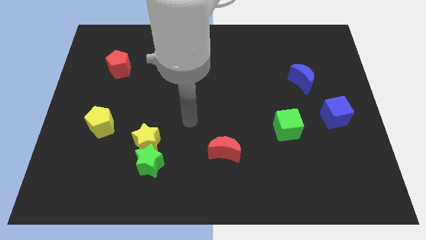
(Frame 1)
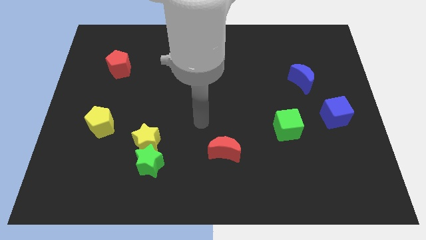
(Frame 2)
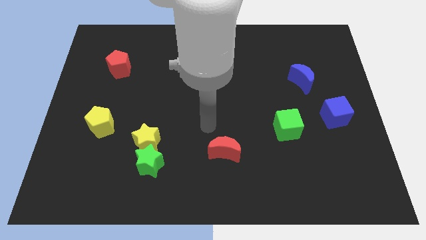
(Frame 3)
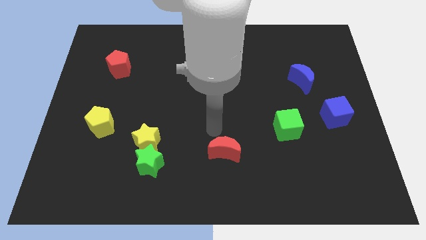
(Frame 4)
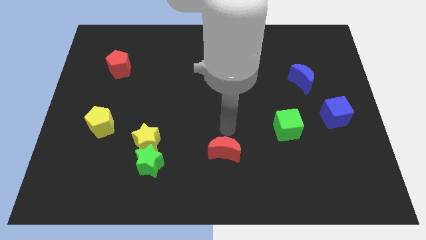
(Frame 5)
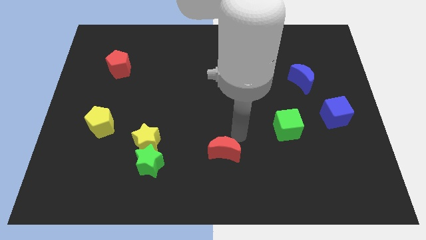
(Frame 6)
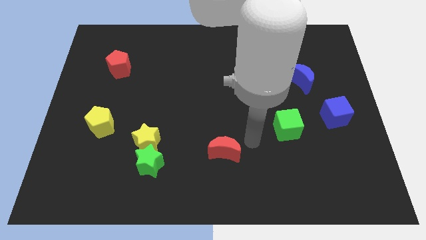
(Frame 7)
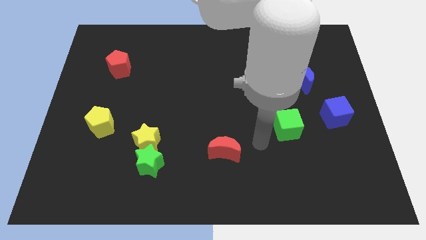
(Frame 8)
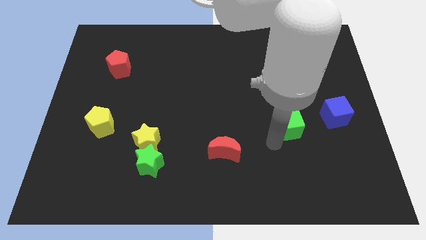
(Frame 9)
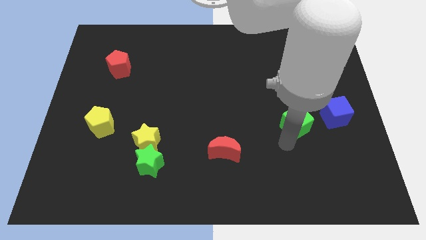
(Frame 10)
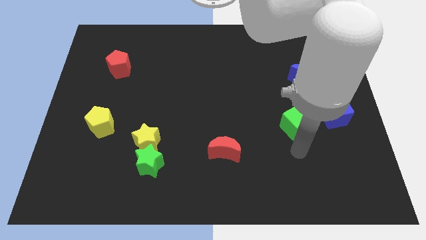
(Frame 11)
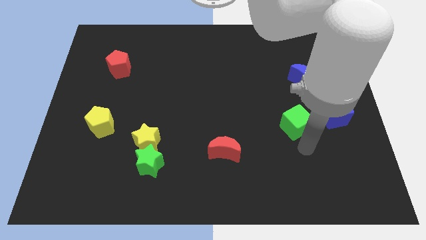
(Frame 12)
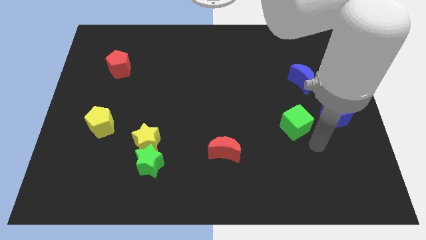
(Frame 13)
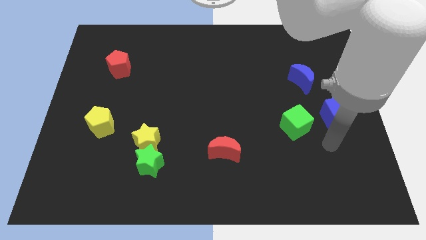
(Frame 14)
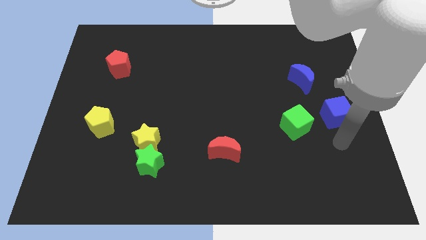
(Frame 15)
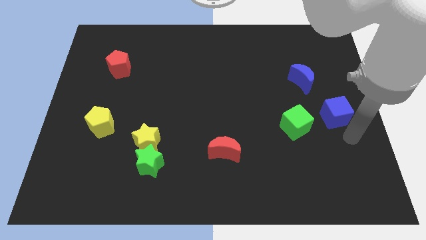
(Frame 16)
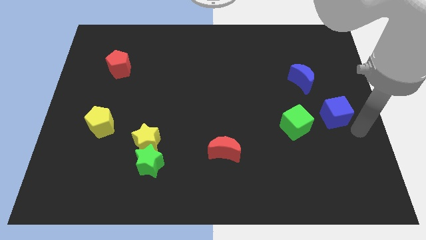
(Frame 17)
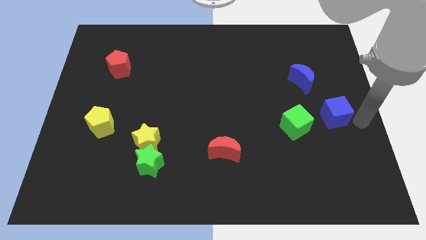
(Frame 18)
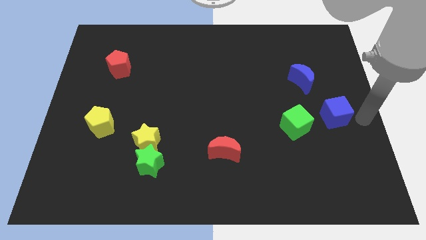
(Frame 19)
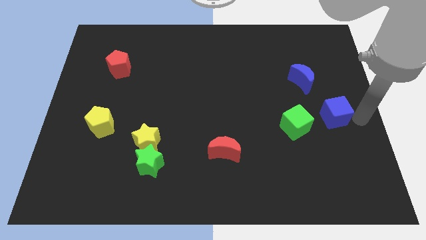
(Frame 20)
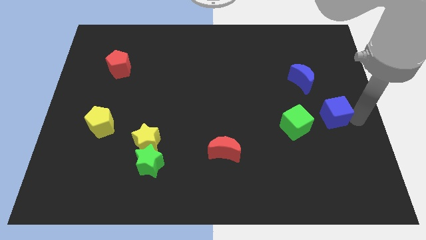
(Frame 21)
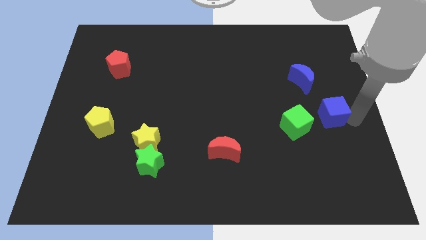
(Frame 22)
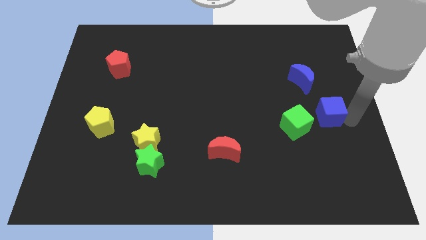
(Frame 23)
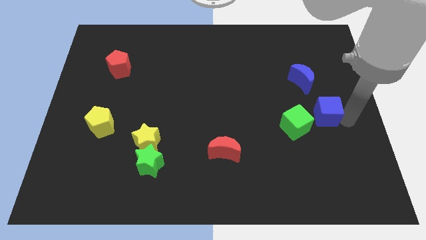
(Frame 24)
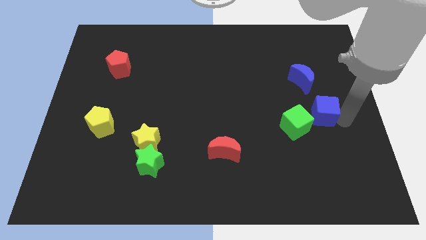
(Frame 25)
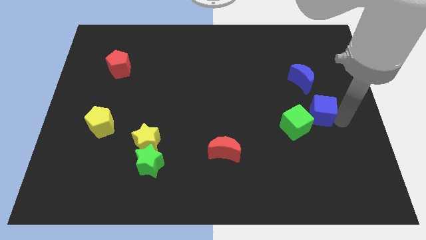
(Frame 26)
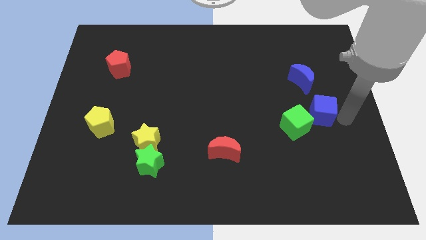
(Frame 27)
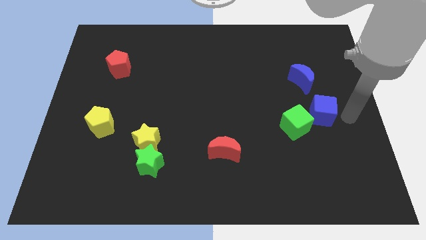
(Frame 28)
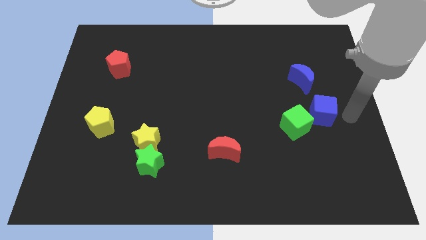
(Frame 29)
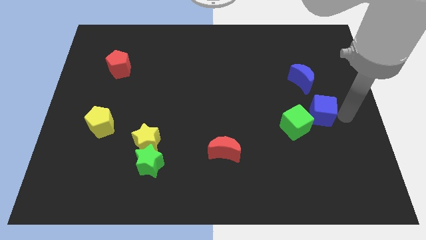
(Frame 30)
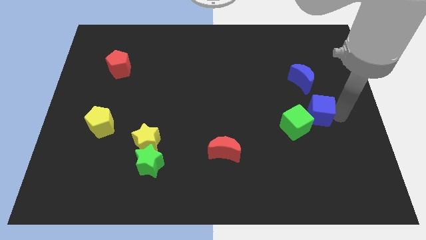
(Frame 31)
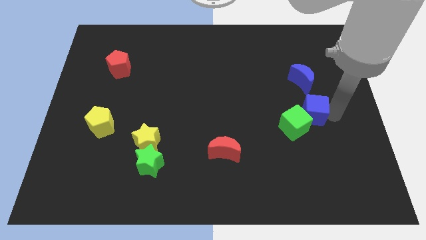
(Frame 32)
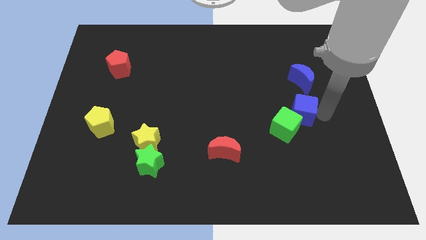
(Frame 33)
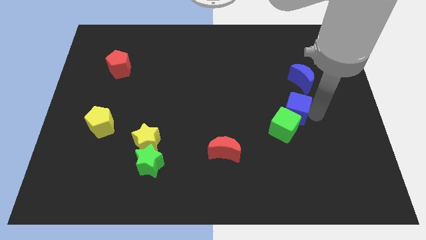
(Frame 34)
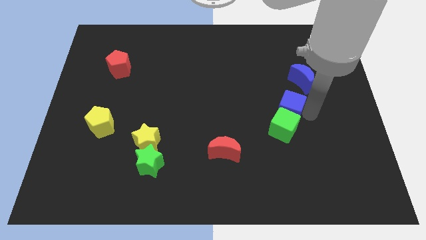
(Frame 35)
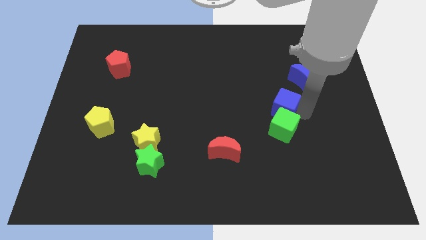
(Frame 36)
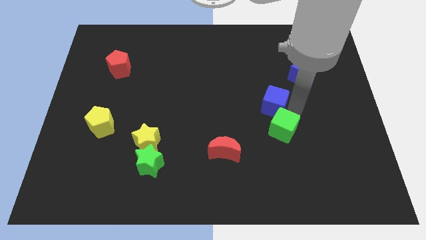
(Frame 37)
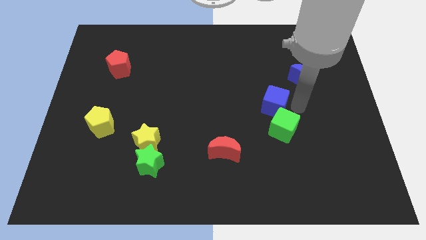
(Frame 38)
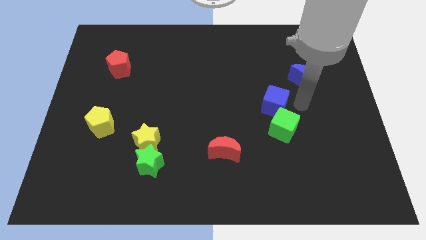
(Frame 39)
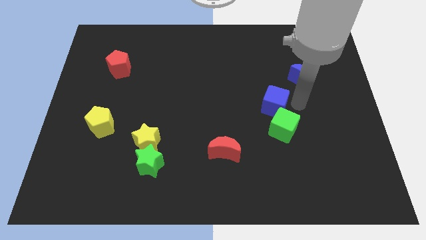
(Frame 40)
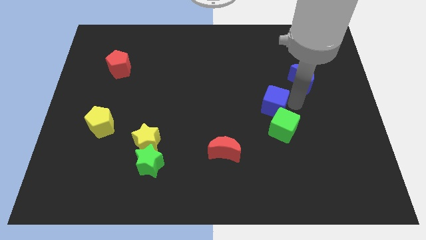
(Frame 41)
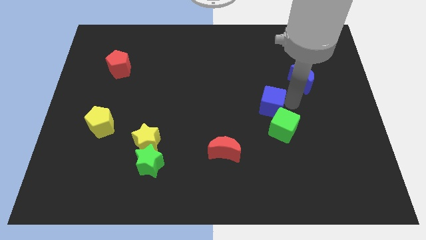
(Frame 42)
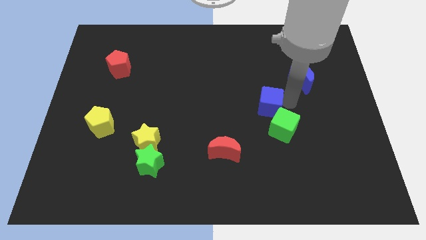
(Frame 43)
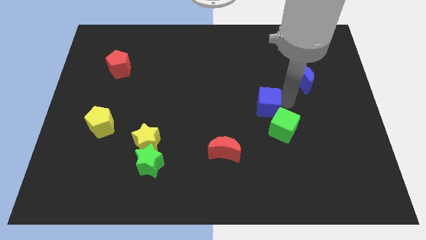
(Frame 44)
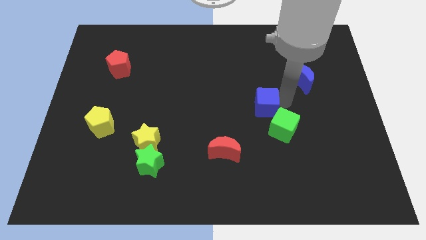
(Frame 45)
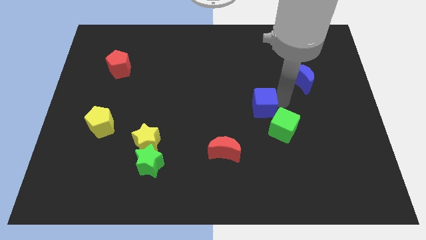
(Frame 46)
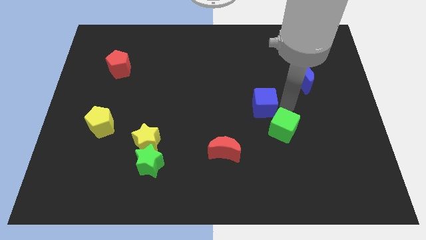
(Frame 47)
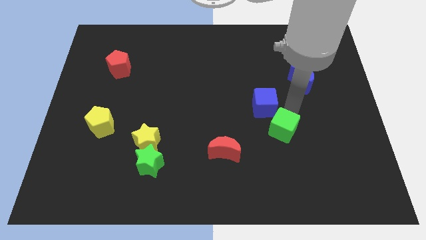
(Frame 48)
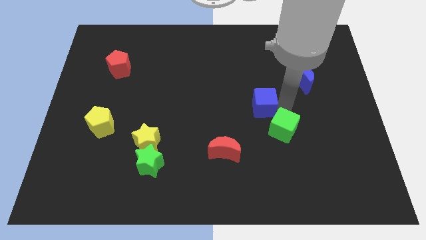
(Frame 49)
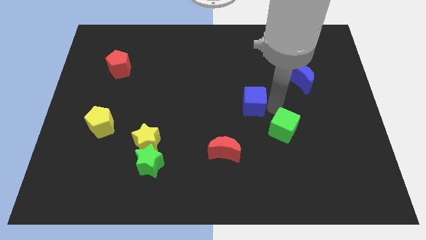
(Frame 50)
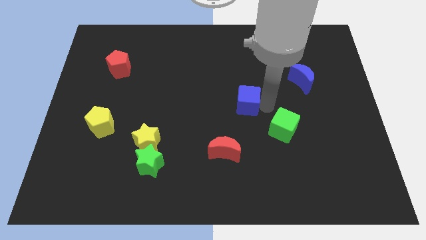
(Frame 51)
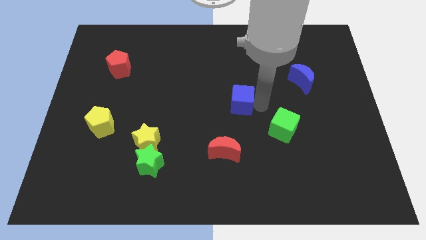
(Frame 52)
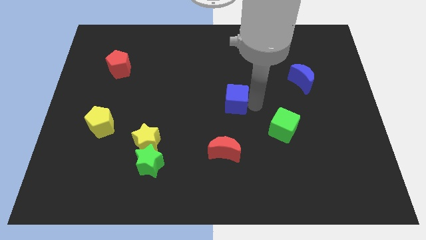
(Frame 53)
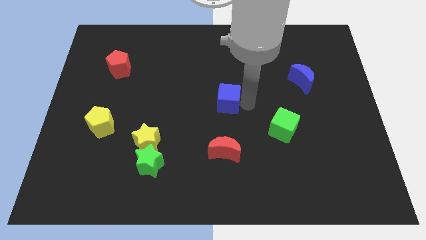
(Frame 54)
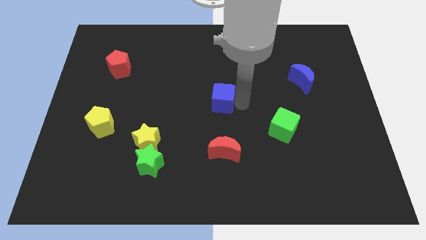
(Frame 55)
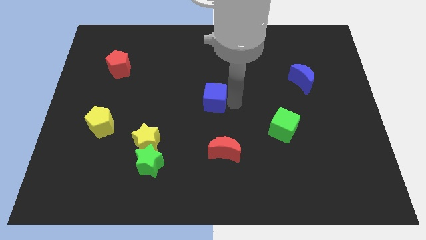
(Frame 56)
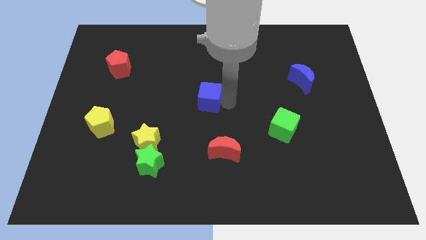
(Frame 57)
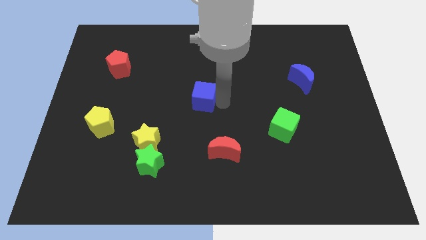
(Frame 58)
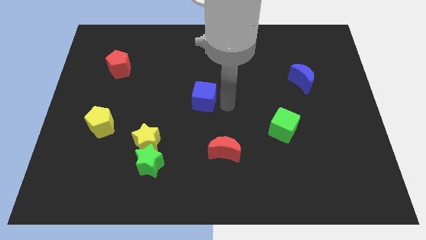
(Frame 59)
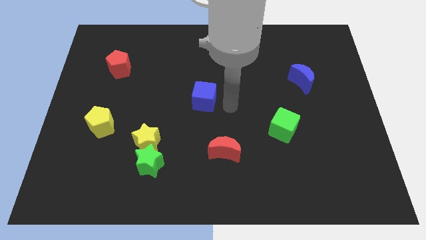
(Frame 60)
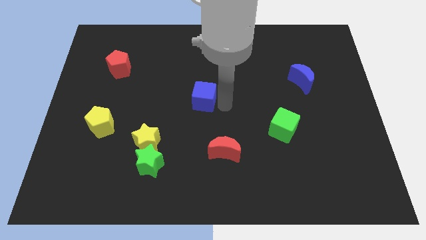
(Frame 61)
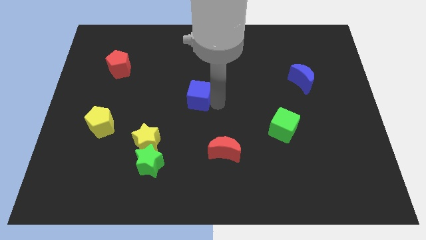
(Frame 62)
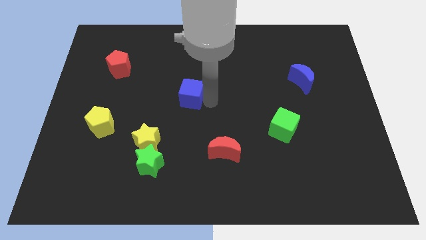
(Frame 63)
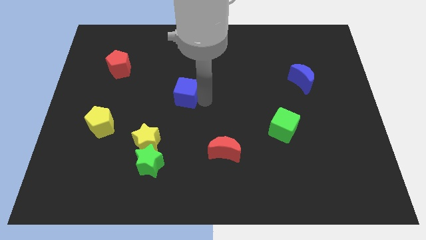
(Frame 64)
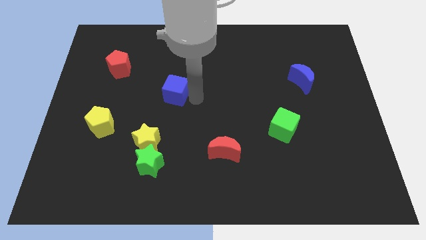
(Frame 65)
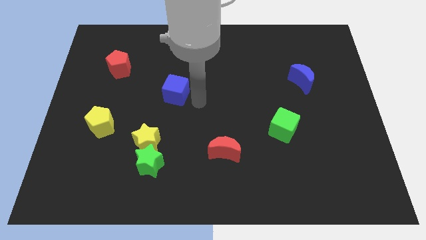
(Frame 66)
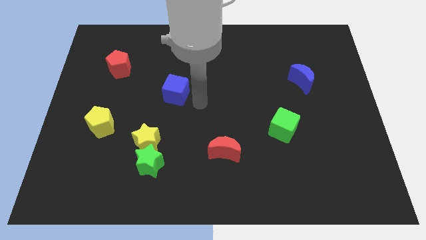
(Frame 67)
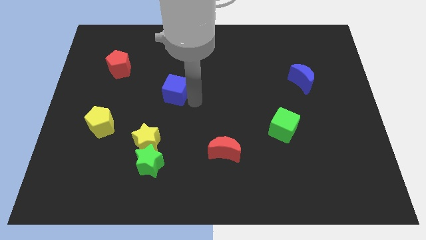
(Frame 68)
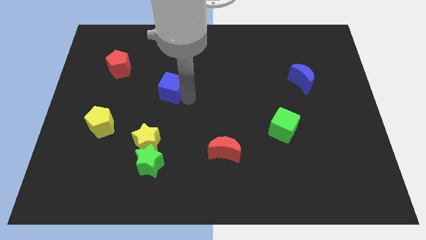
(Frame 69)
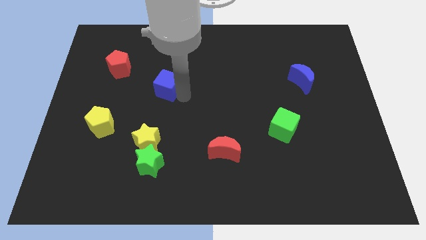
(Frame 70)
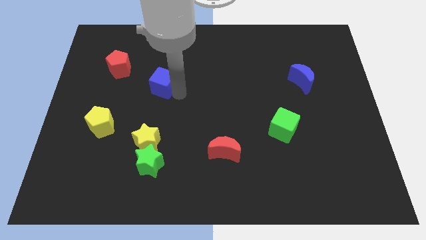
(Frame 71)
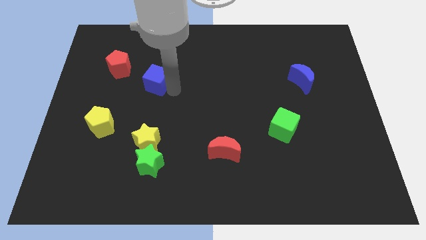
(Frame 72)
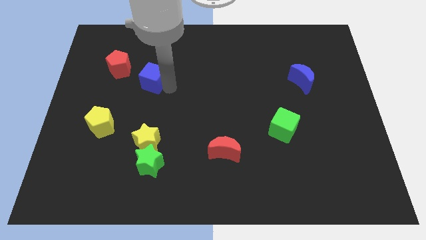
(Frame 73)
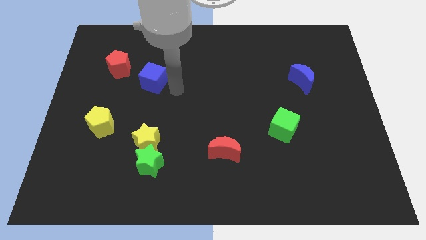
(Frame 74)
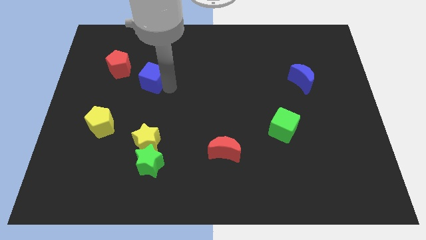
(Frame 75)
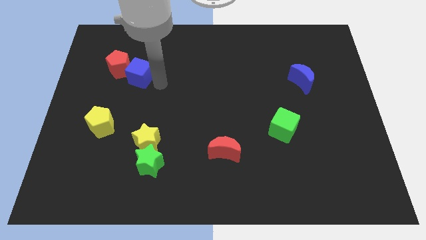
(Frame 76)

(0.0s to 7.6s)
push the blue cube towards the red pentagon
